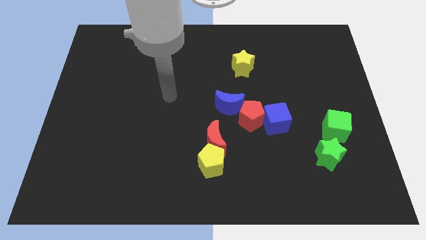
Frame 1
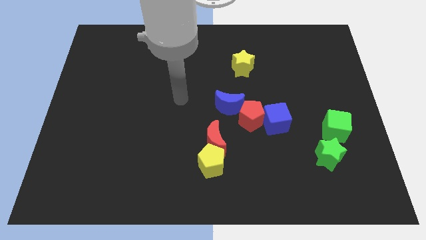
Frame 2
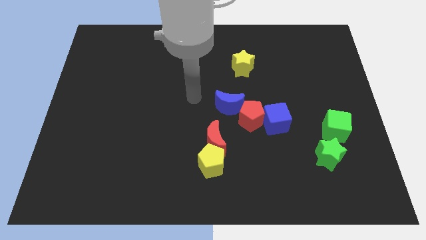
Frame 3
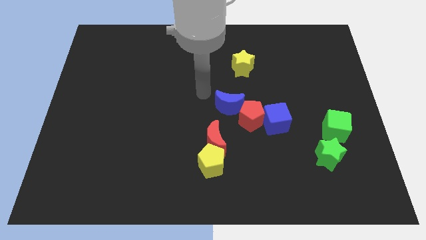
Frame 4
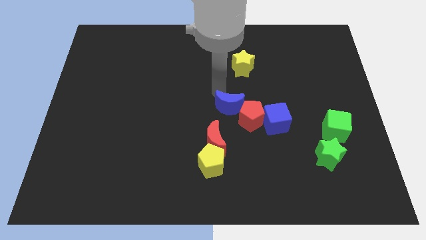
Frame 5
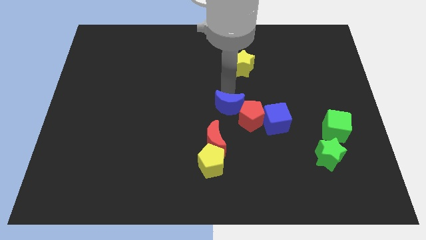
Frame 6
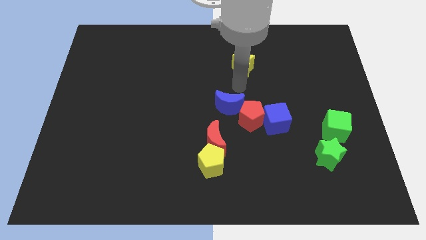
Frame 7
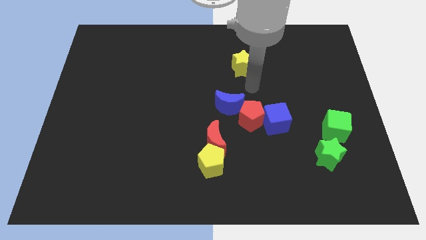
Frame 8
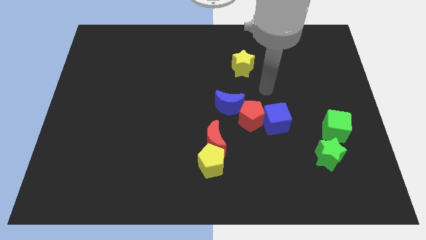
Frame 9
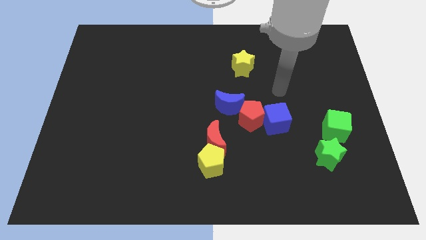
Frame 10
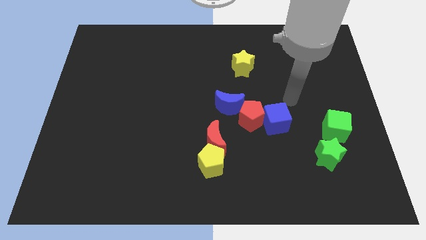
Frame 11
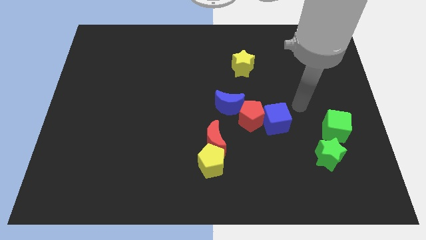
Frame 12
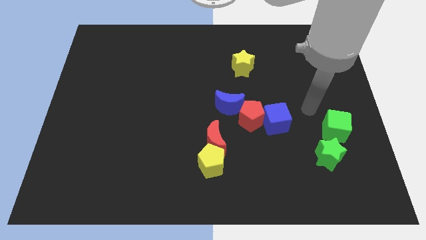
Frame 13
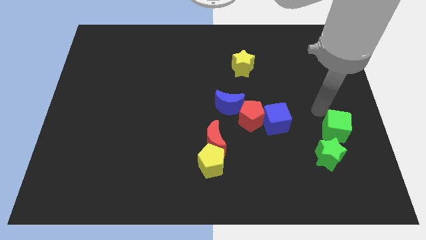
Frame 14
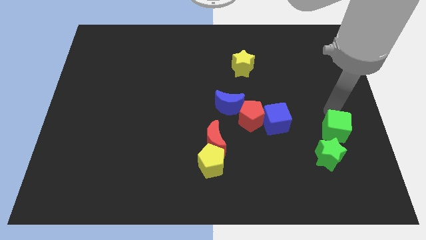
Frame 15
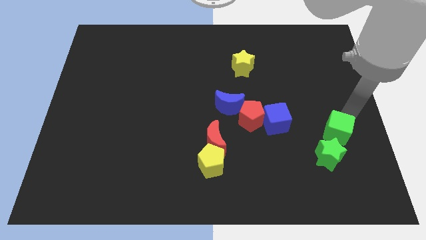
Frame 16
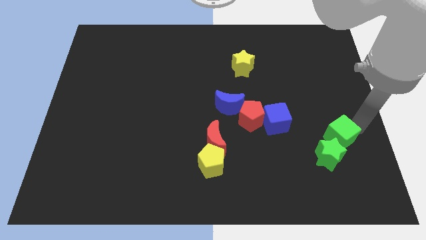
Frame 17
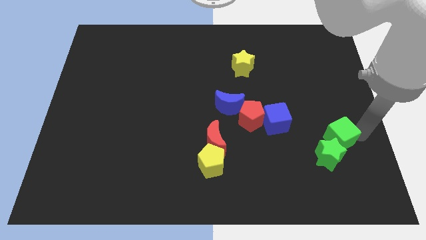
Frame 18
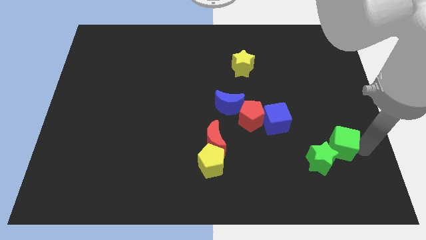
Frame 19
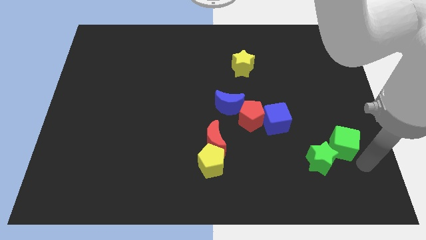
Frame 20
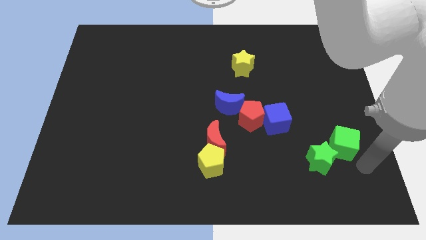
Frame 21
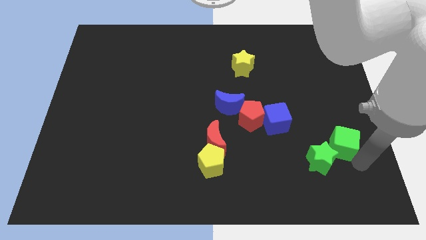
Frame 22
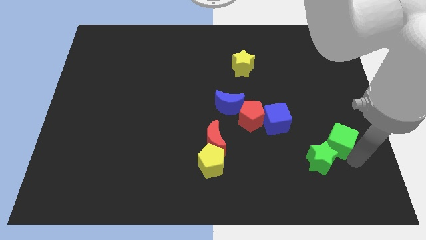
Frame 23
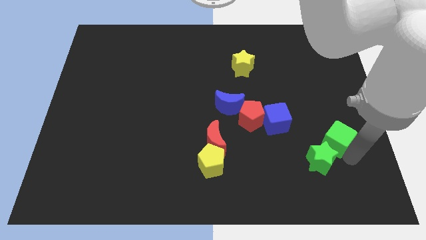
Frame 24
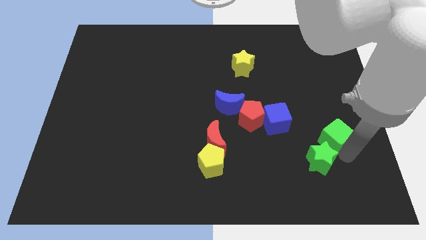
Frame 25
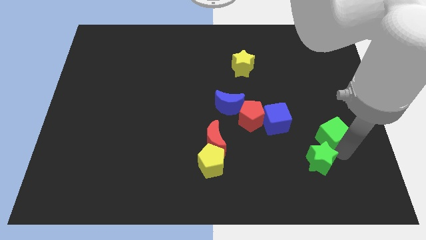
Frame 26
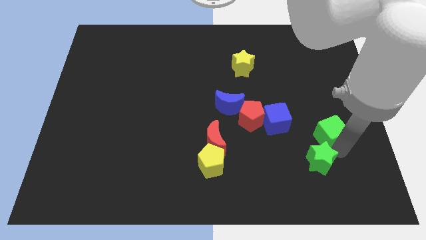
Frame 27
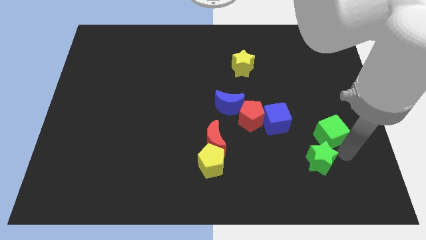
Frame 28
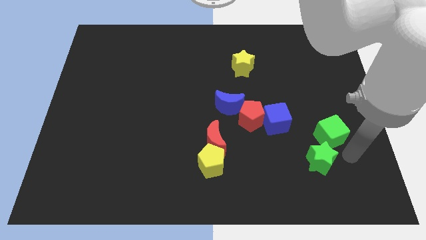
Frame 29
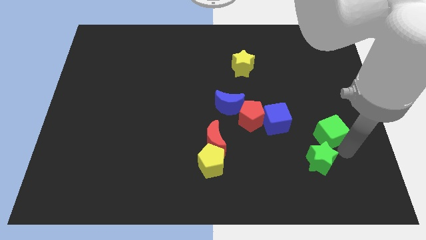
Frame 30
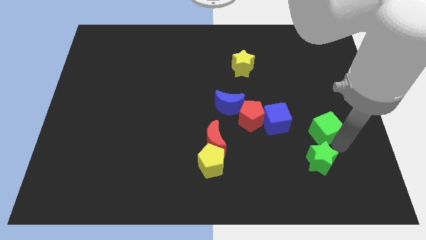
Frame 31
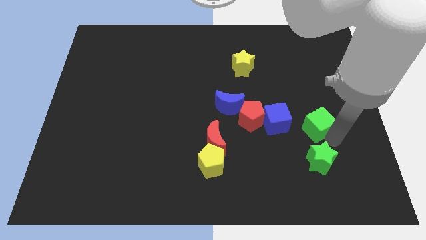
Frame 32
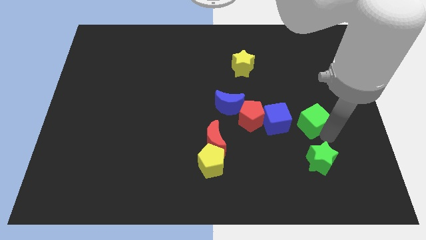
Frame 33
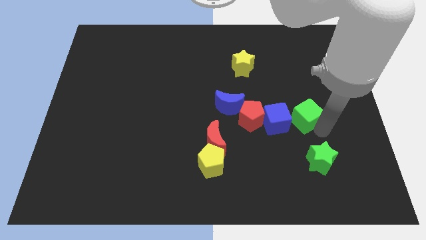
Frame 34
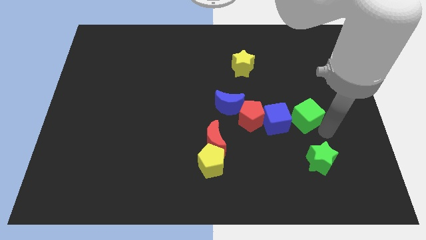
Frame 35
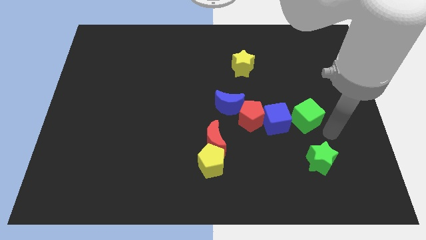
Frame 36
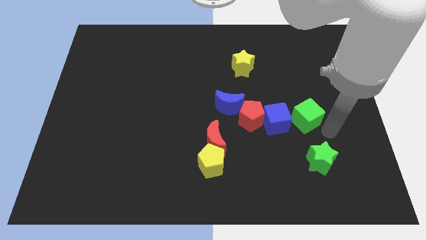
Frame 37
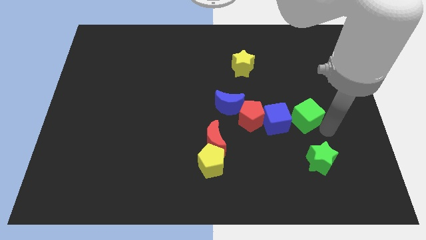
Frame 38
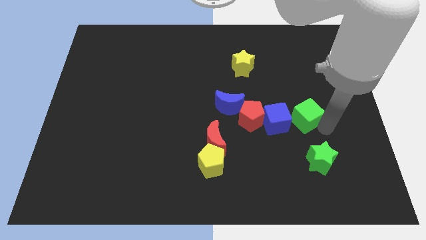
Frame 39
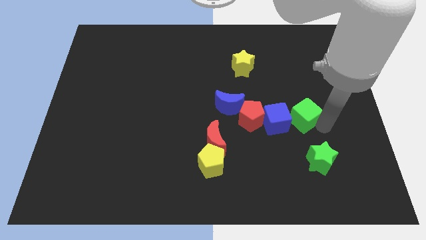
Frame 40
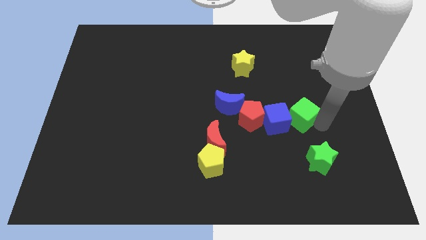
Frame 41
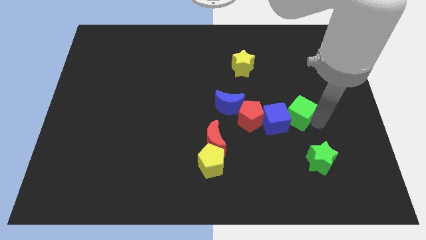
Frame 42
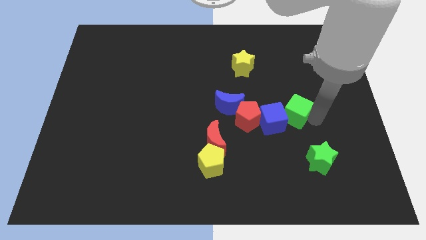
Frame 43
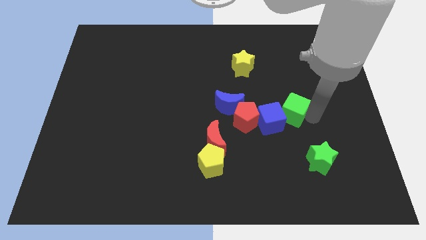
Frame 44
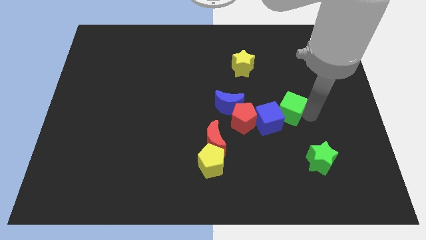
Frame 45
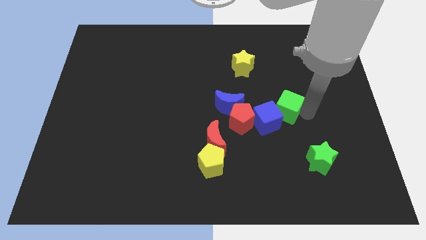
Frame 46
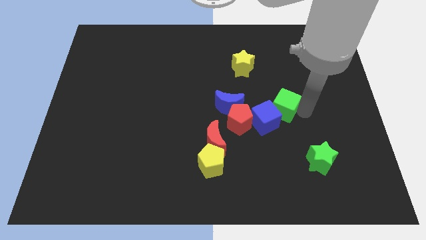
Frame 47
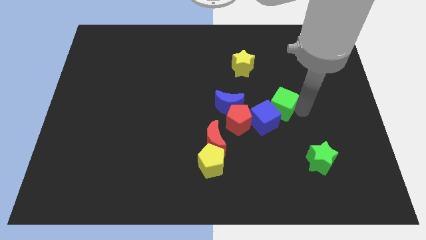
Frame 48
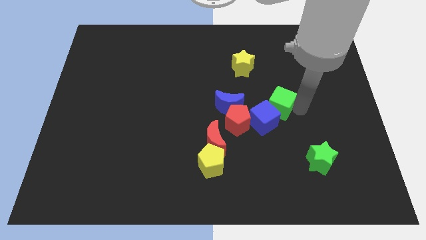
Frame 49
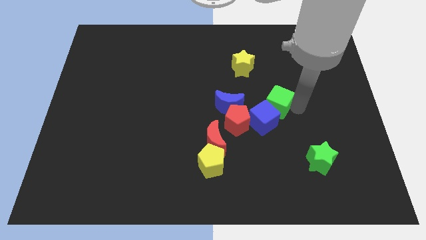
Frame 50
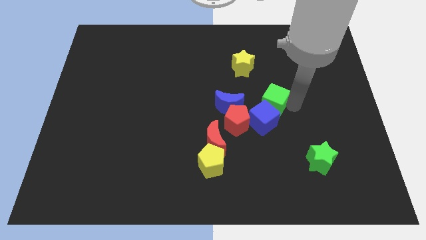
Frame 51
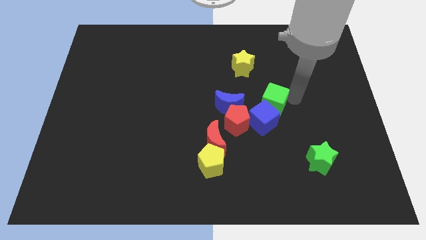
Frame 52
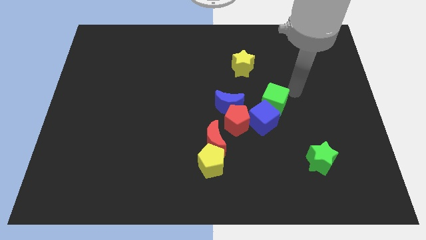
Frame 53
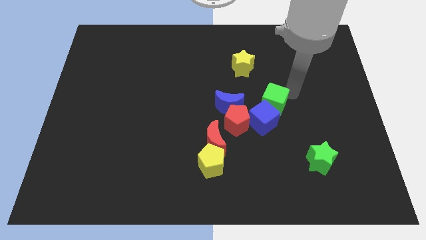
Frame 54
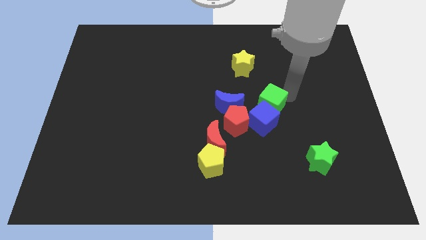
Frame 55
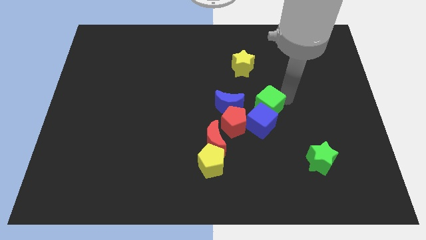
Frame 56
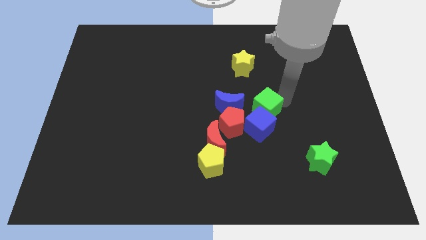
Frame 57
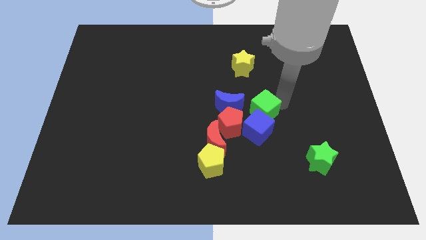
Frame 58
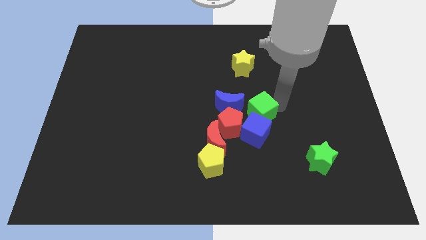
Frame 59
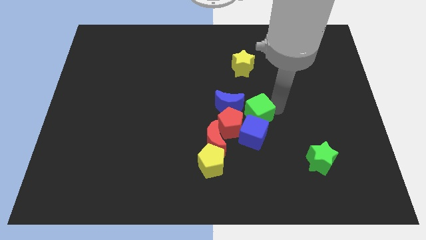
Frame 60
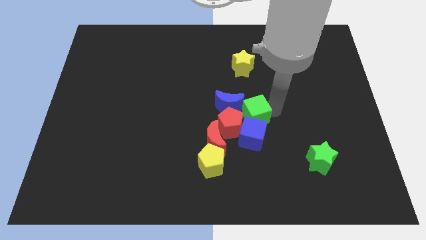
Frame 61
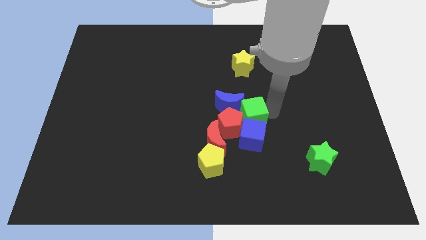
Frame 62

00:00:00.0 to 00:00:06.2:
move the green cube next to the red pentagon

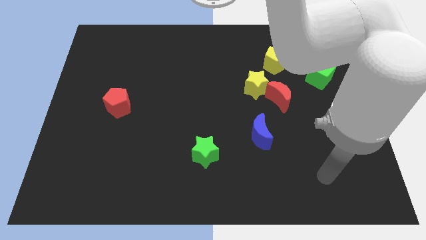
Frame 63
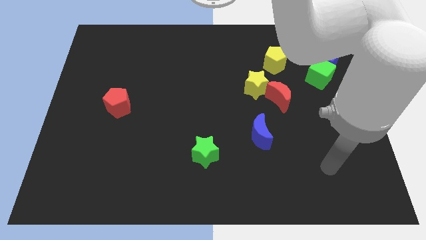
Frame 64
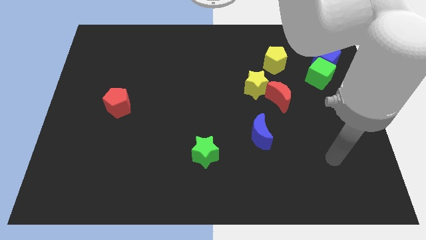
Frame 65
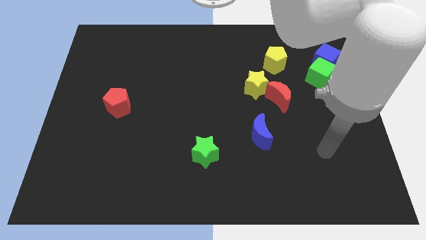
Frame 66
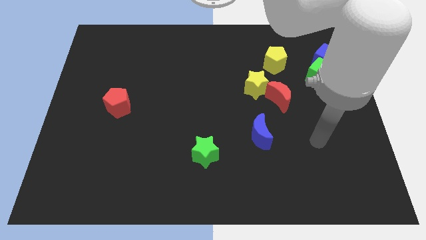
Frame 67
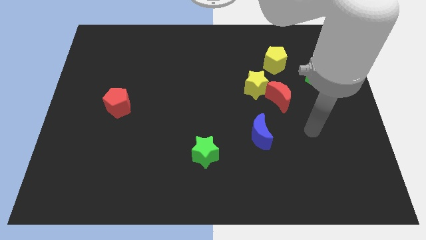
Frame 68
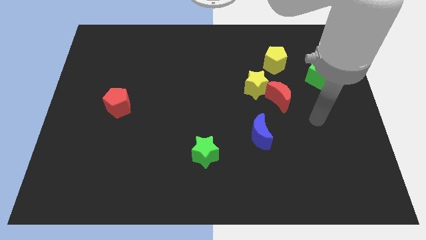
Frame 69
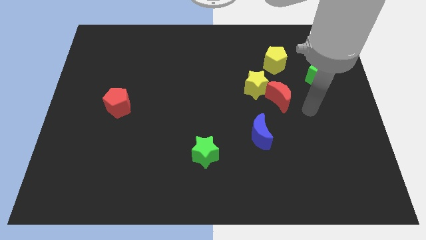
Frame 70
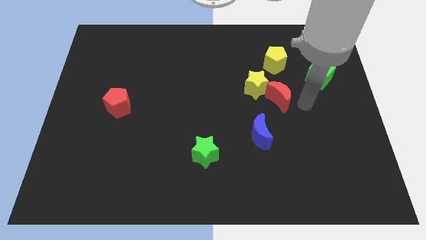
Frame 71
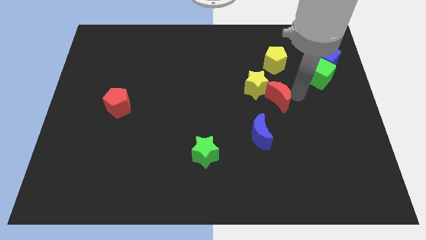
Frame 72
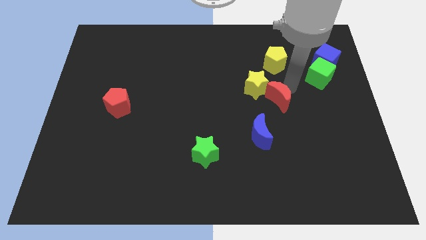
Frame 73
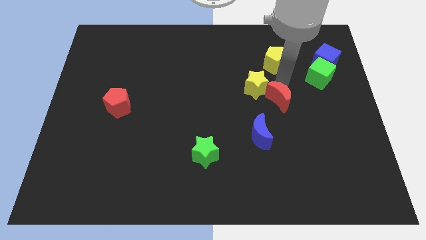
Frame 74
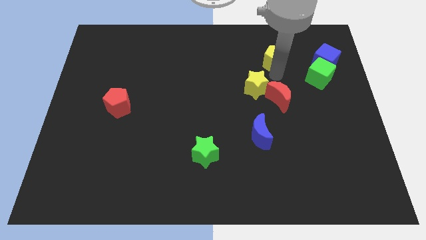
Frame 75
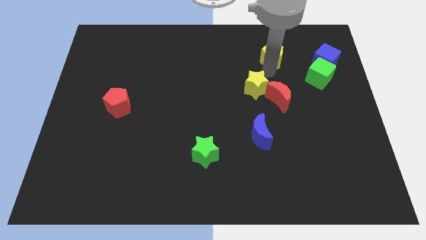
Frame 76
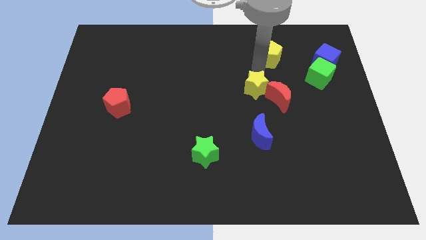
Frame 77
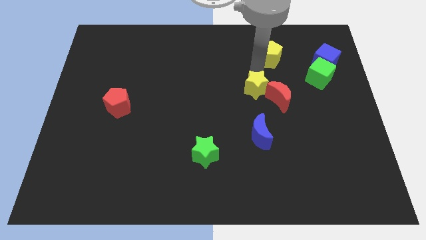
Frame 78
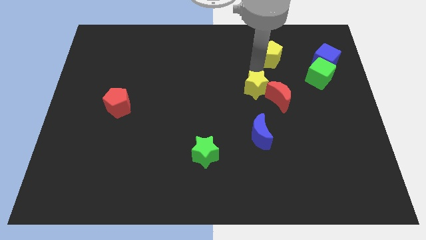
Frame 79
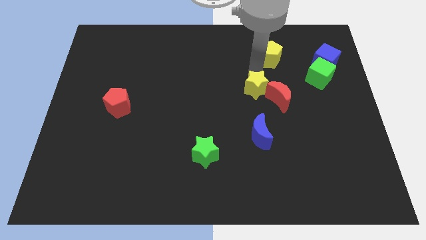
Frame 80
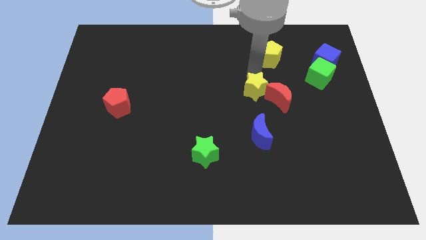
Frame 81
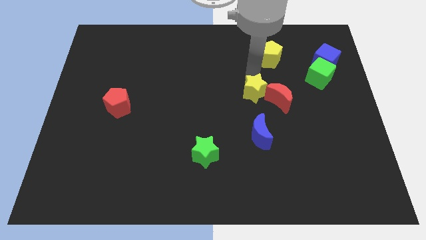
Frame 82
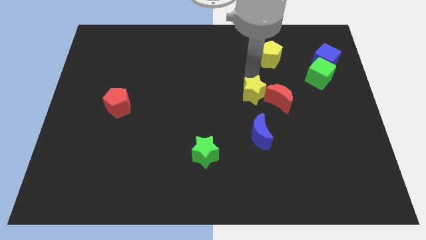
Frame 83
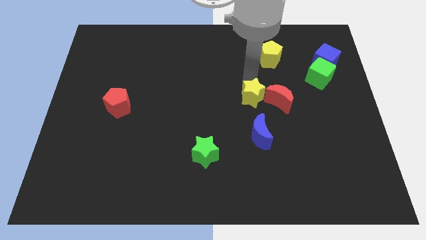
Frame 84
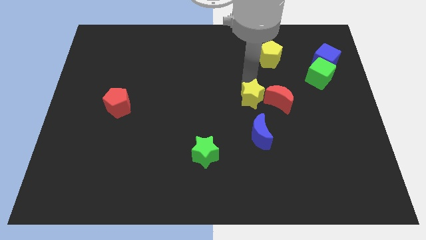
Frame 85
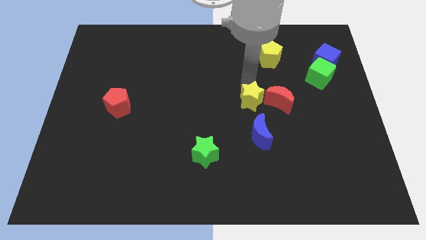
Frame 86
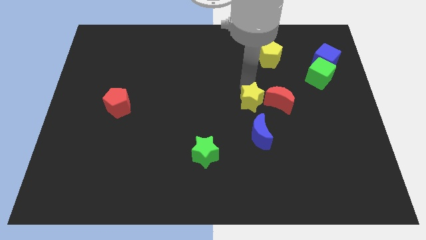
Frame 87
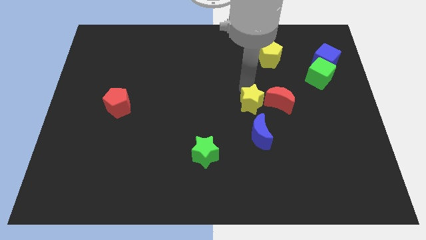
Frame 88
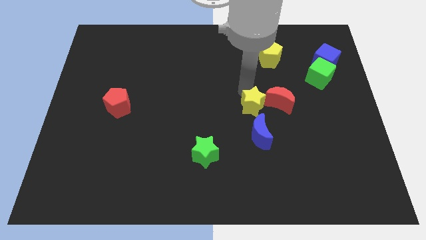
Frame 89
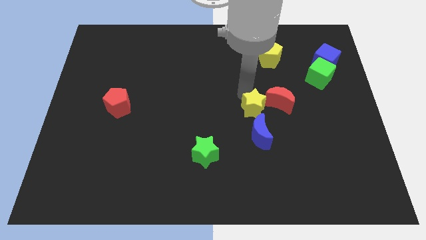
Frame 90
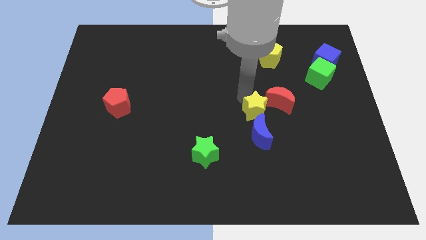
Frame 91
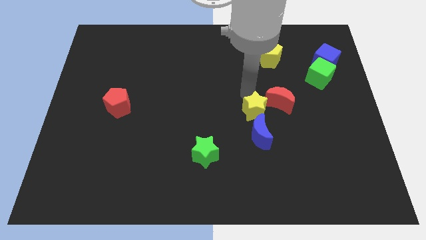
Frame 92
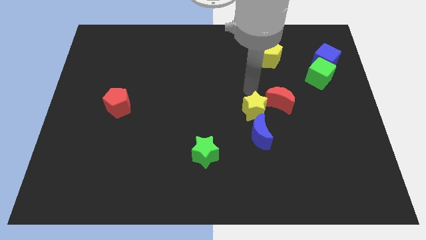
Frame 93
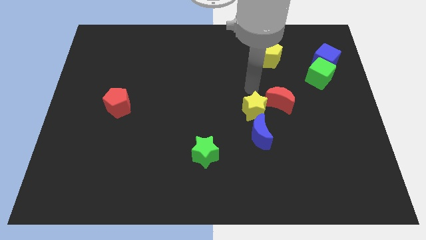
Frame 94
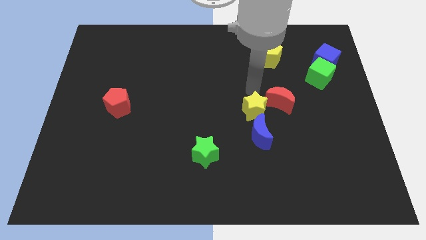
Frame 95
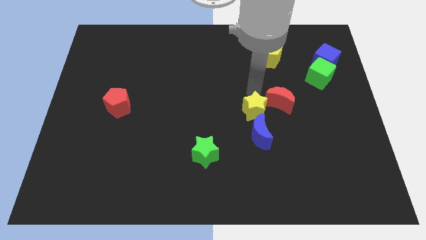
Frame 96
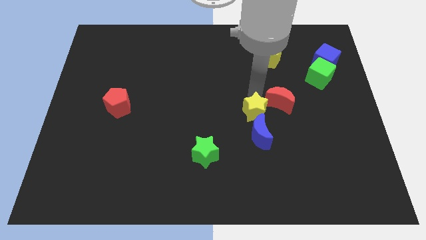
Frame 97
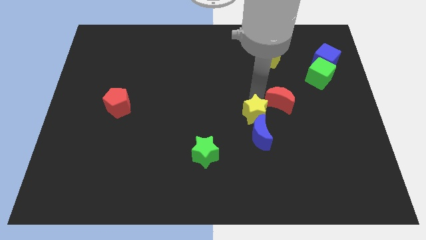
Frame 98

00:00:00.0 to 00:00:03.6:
put the yellow star to the blue moon
